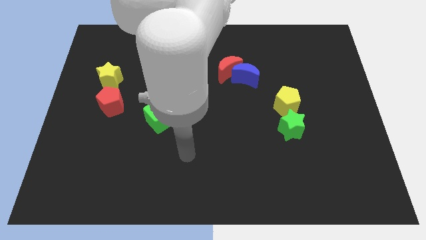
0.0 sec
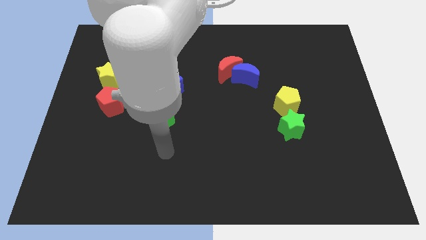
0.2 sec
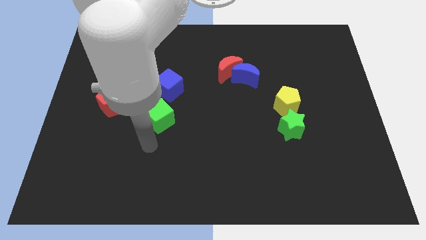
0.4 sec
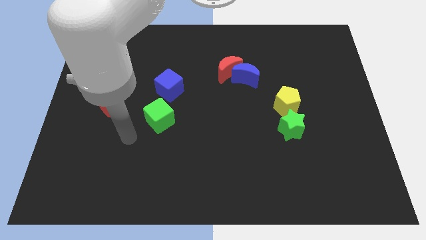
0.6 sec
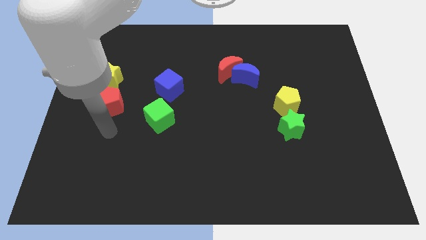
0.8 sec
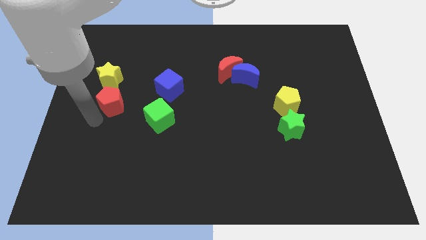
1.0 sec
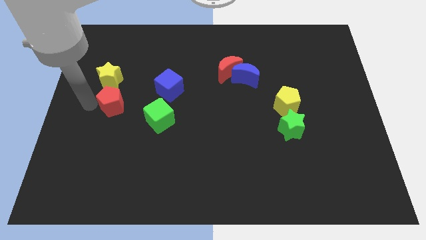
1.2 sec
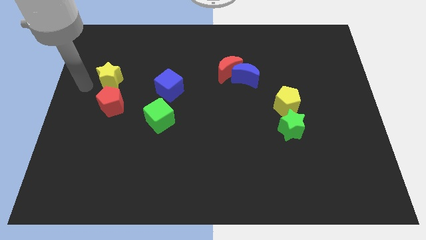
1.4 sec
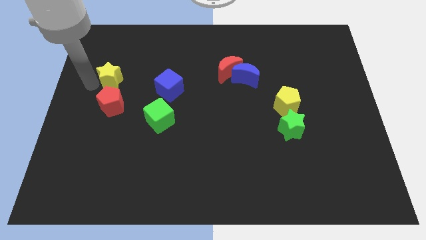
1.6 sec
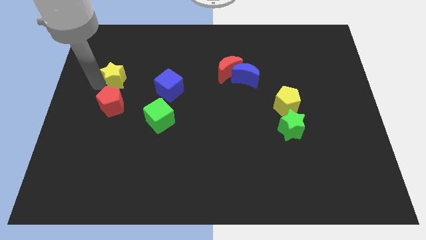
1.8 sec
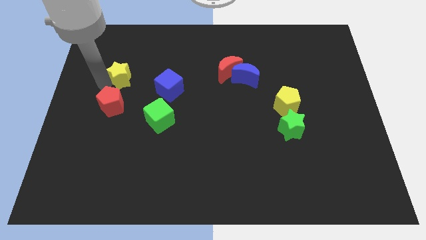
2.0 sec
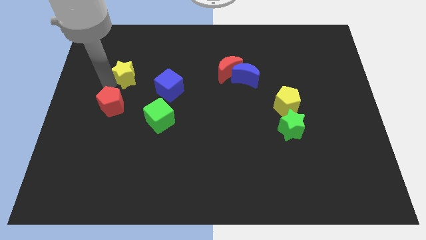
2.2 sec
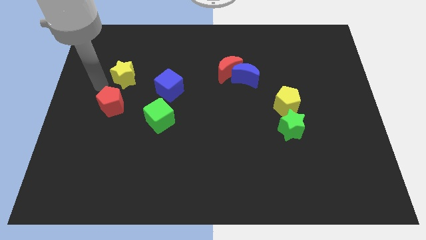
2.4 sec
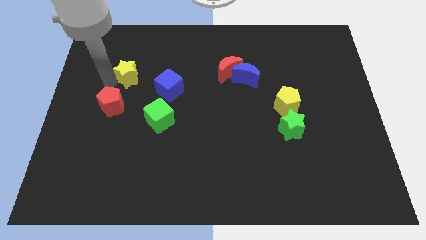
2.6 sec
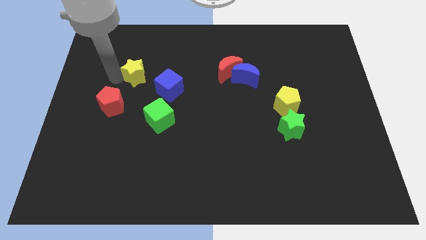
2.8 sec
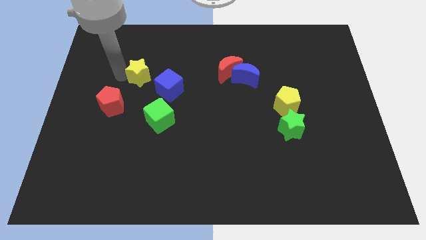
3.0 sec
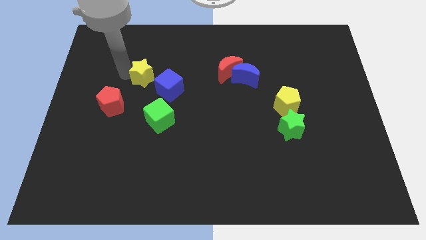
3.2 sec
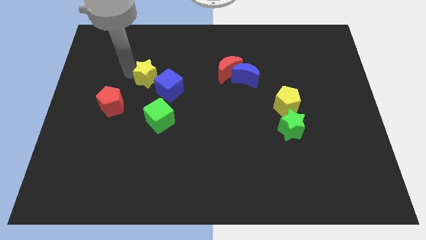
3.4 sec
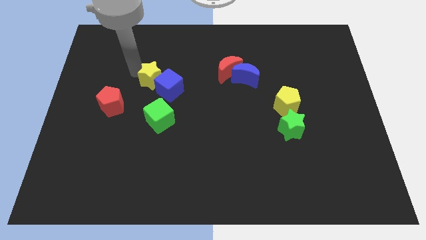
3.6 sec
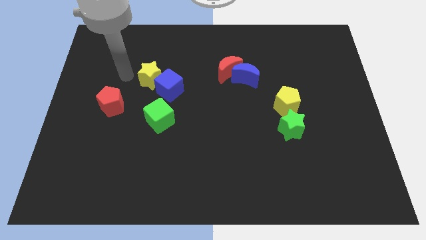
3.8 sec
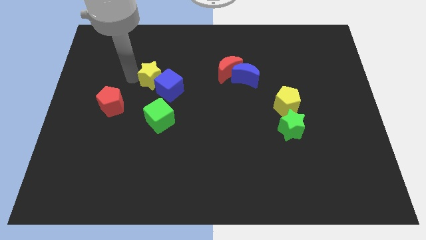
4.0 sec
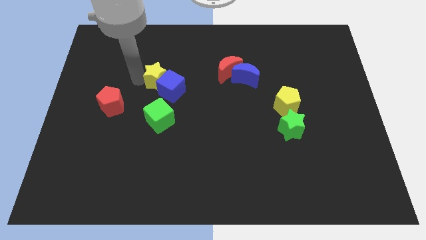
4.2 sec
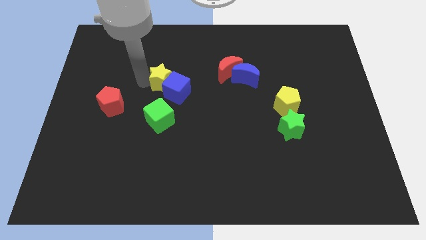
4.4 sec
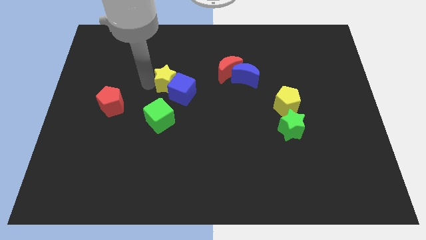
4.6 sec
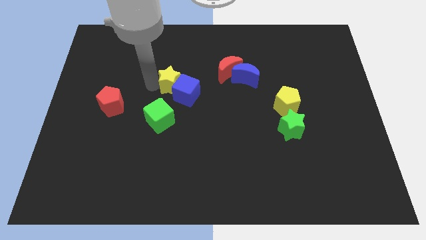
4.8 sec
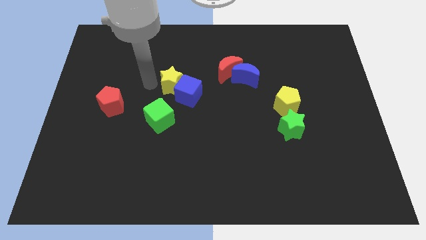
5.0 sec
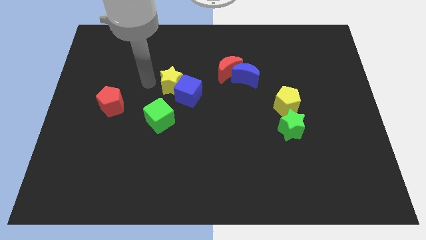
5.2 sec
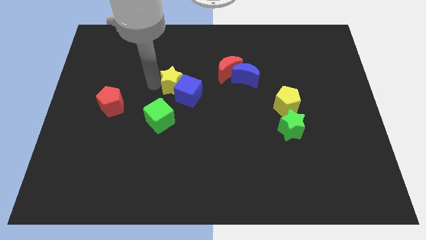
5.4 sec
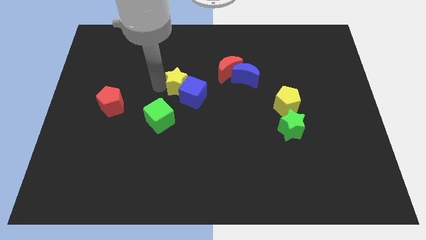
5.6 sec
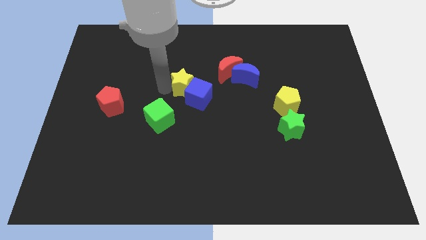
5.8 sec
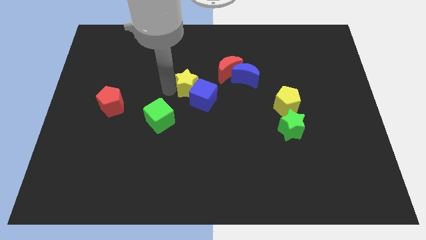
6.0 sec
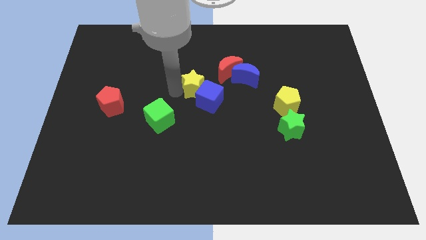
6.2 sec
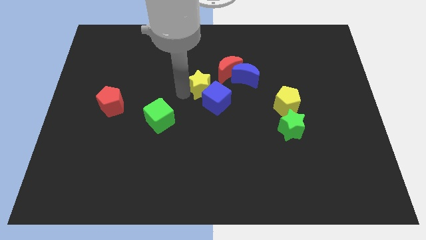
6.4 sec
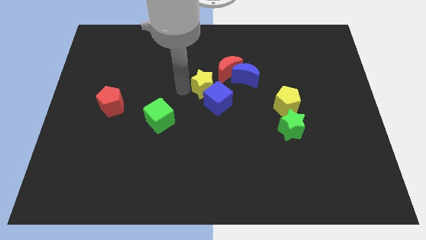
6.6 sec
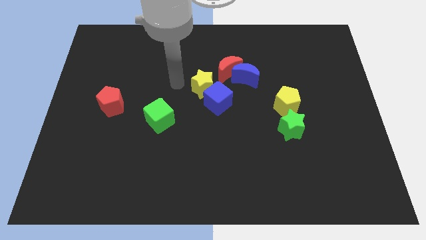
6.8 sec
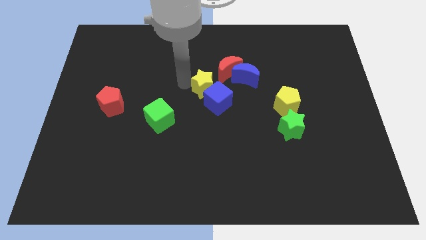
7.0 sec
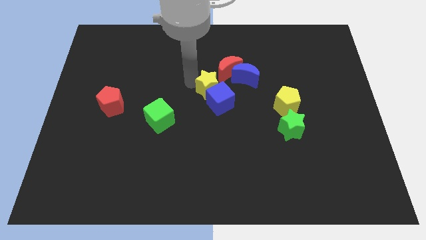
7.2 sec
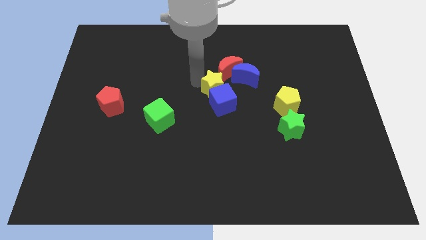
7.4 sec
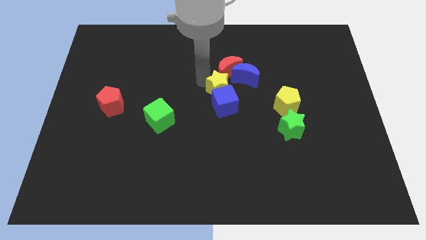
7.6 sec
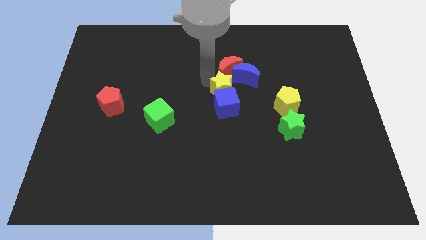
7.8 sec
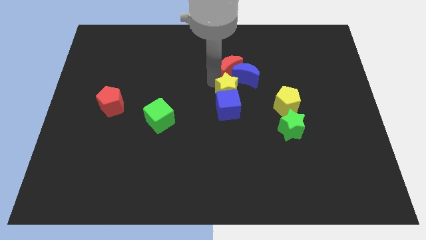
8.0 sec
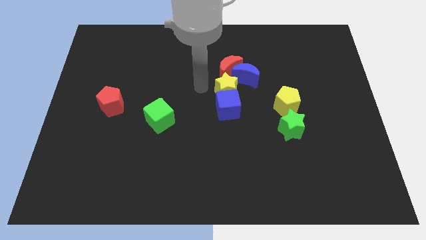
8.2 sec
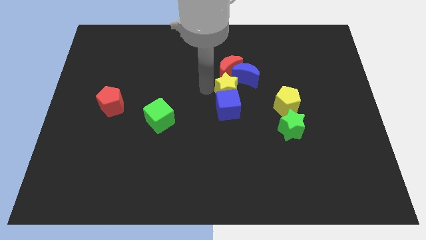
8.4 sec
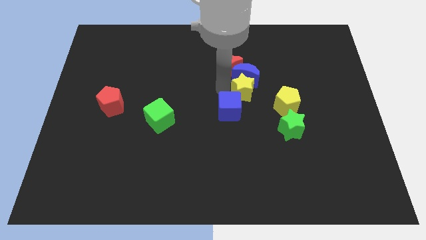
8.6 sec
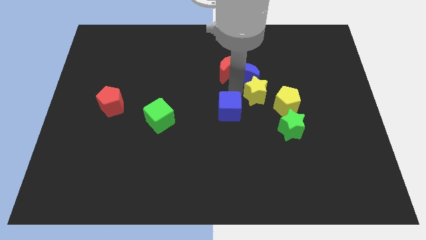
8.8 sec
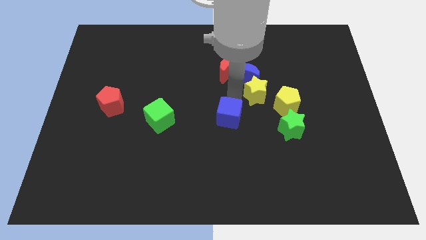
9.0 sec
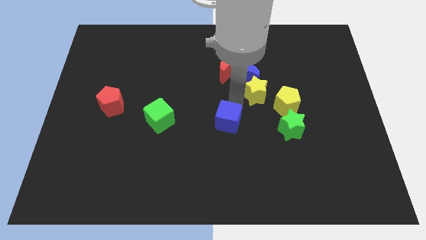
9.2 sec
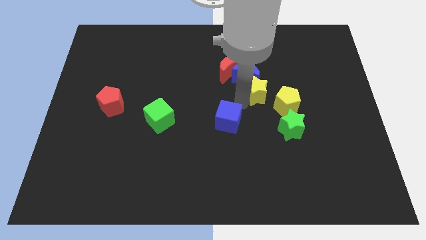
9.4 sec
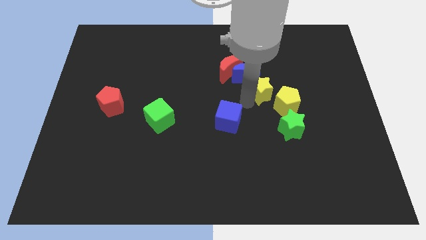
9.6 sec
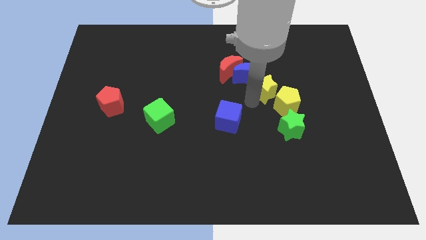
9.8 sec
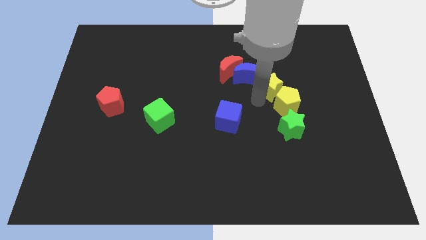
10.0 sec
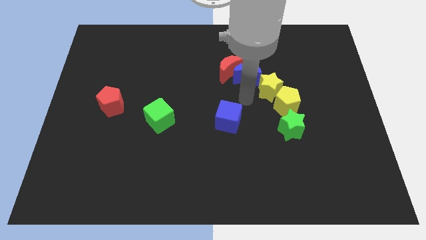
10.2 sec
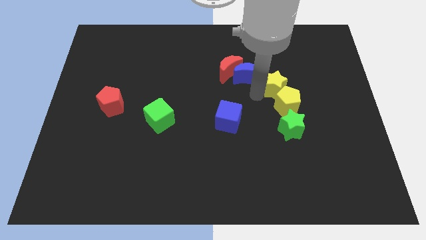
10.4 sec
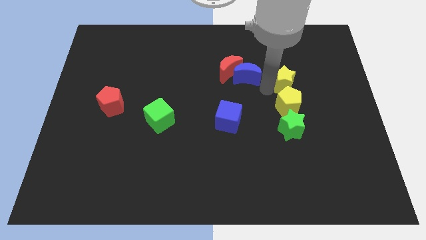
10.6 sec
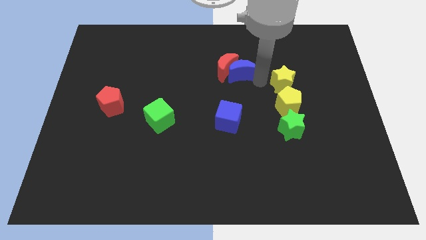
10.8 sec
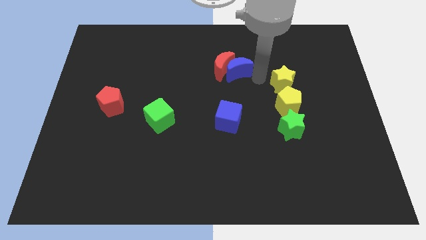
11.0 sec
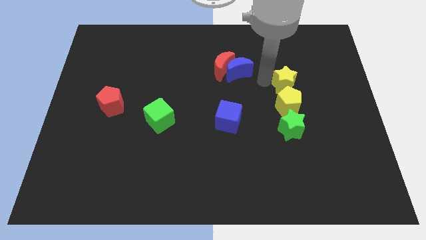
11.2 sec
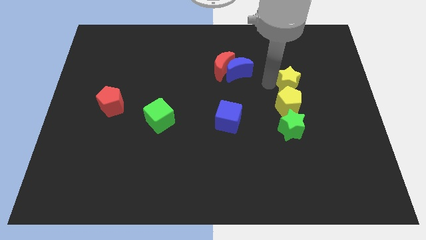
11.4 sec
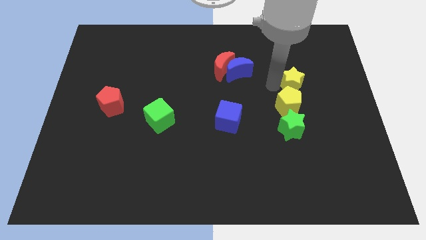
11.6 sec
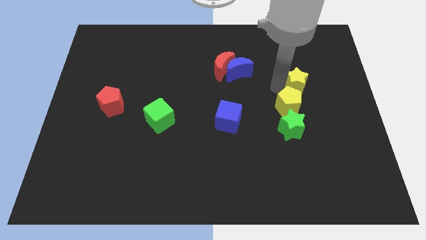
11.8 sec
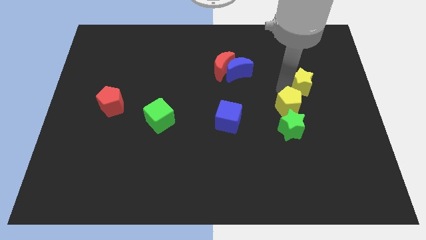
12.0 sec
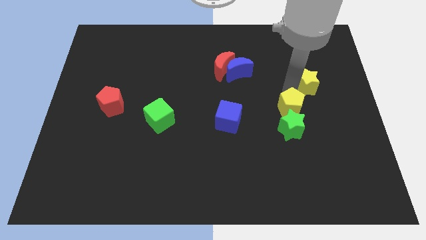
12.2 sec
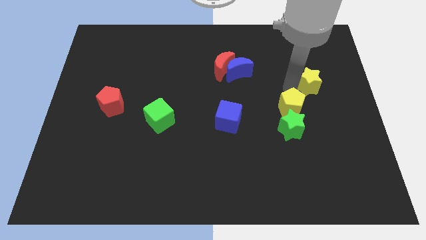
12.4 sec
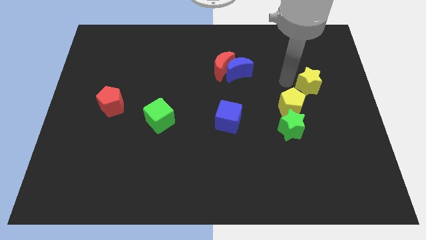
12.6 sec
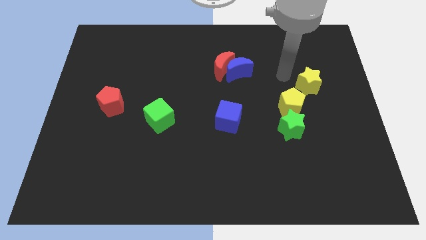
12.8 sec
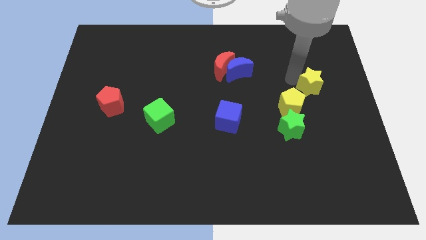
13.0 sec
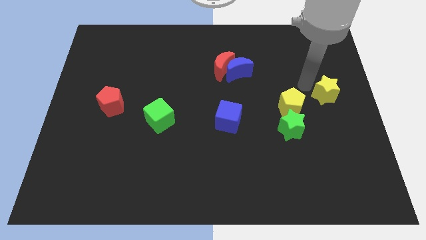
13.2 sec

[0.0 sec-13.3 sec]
push the yellow star to the center right
